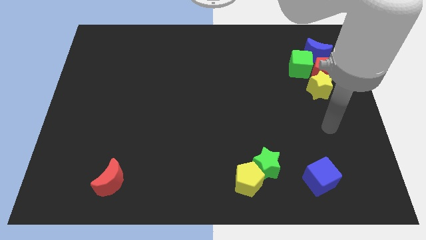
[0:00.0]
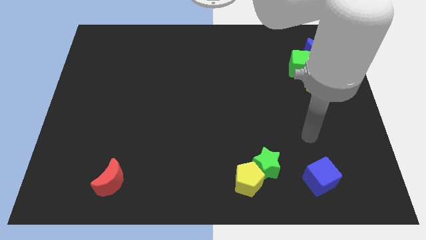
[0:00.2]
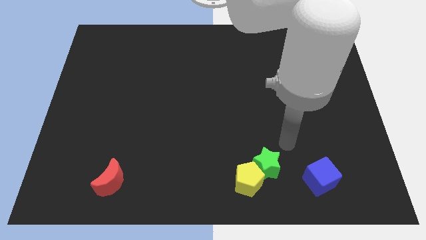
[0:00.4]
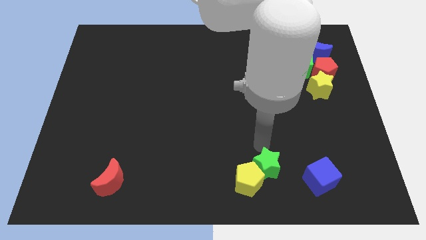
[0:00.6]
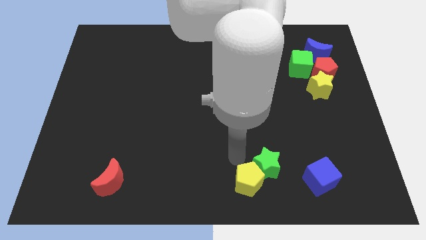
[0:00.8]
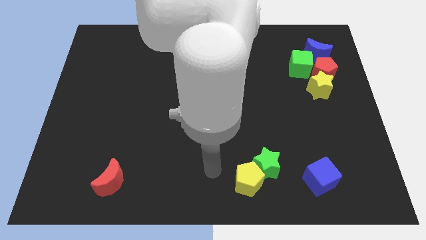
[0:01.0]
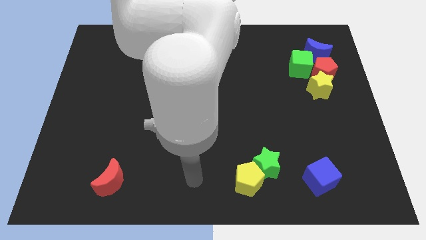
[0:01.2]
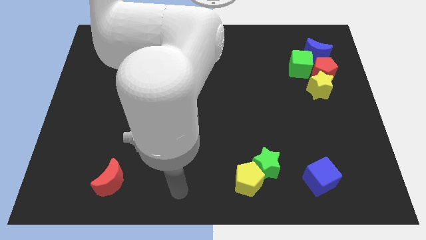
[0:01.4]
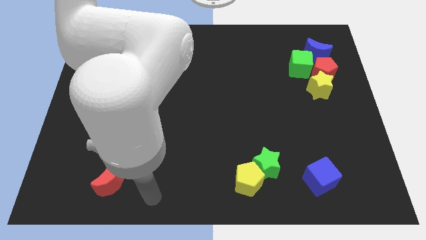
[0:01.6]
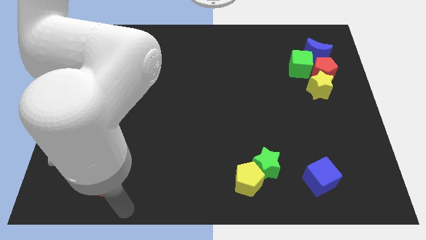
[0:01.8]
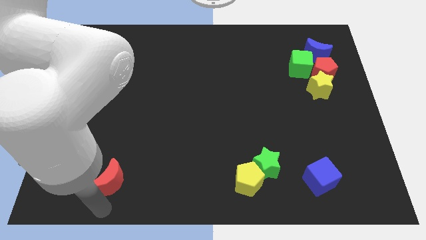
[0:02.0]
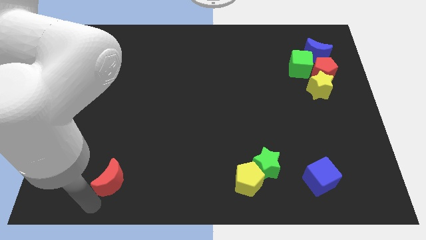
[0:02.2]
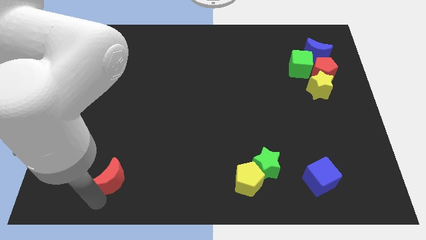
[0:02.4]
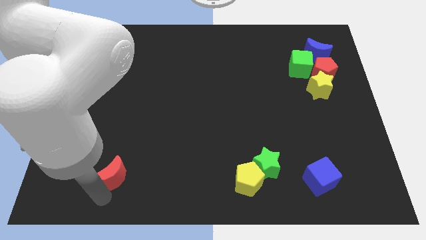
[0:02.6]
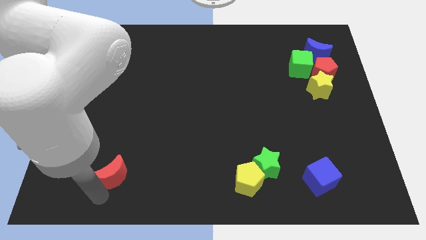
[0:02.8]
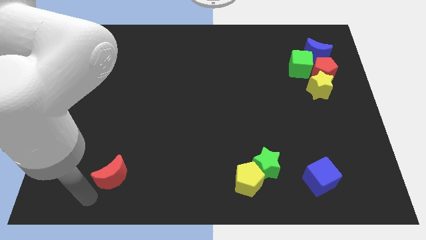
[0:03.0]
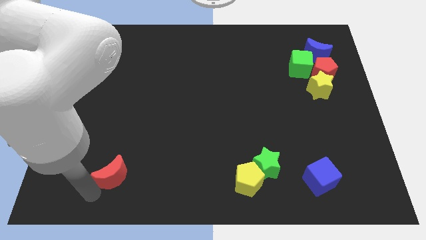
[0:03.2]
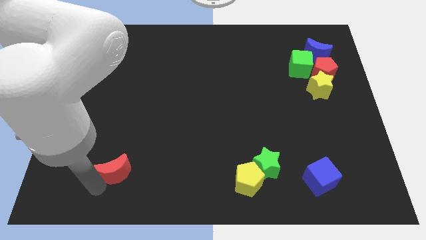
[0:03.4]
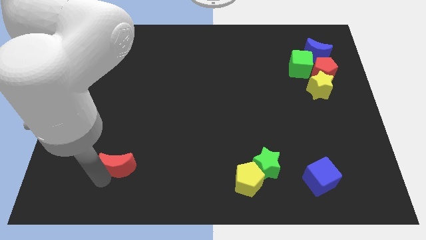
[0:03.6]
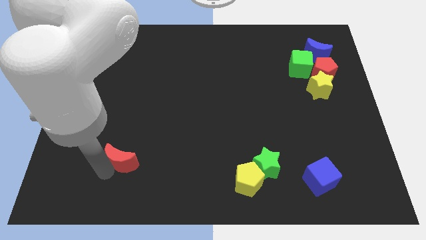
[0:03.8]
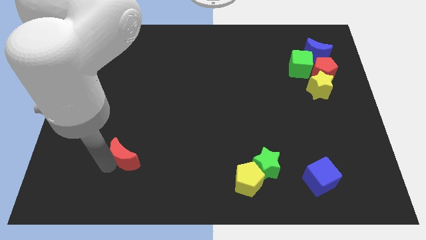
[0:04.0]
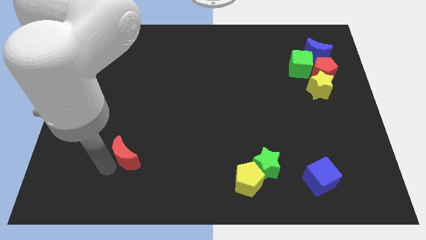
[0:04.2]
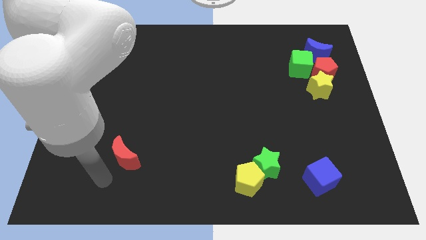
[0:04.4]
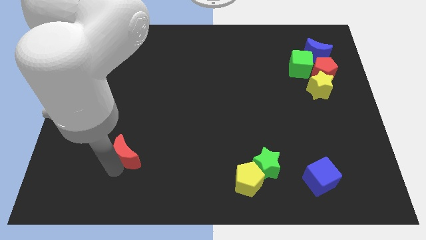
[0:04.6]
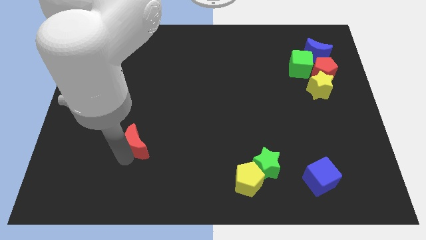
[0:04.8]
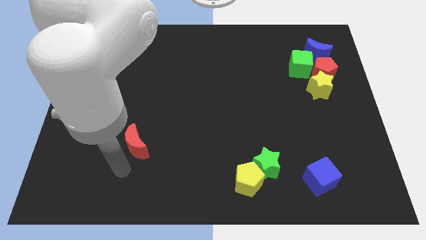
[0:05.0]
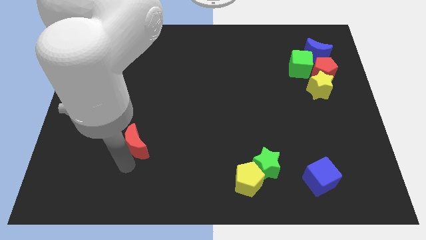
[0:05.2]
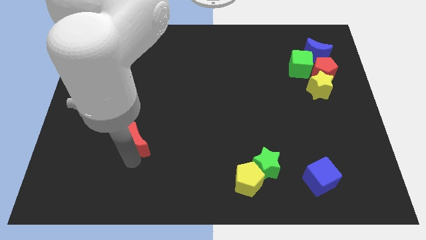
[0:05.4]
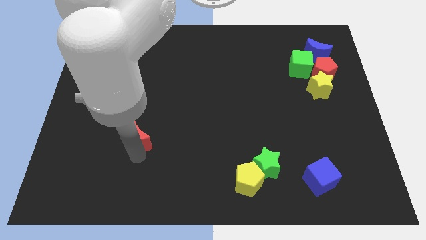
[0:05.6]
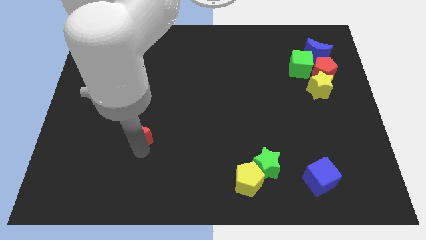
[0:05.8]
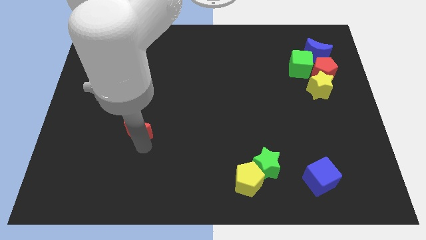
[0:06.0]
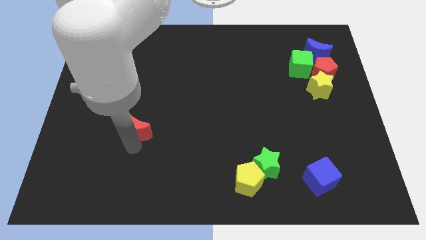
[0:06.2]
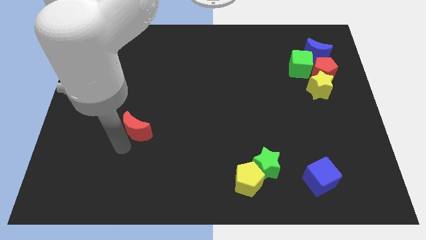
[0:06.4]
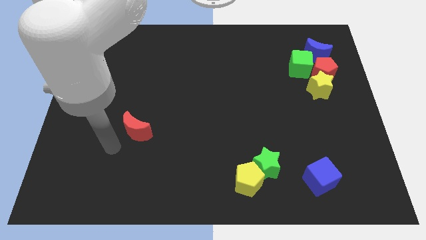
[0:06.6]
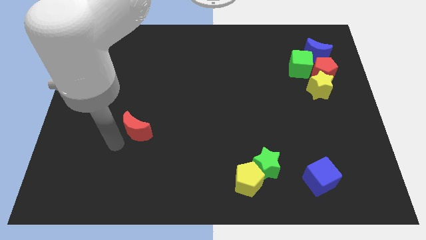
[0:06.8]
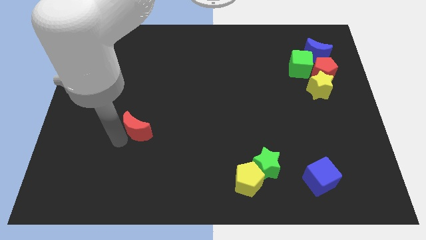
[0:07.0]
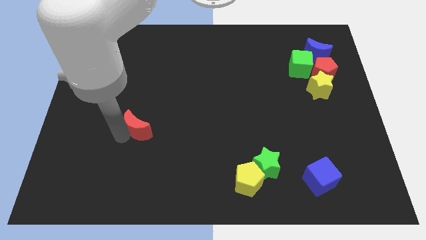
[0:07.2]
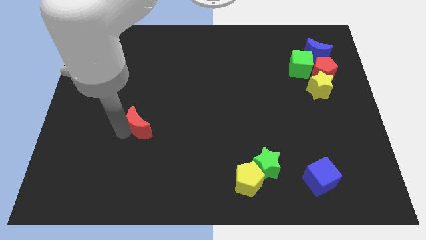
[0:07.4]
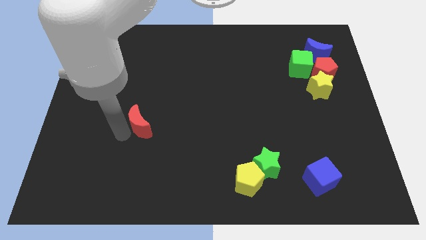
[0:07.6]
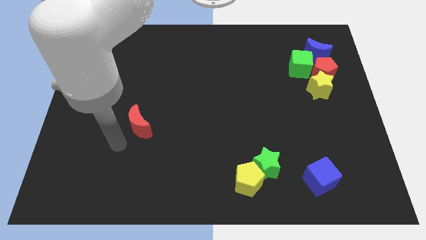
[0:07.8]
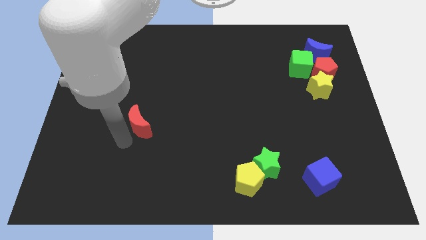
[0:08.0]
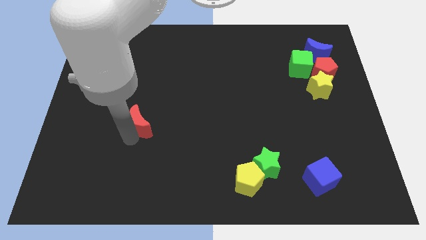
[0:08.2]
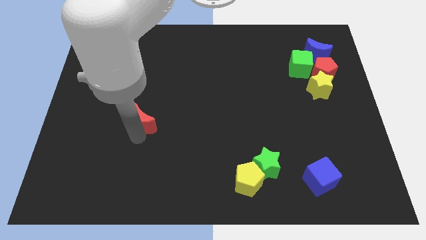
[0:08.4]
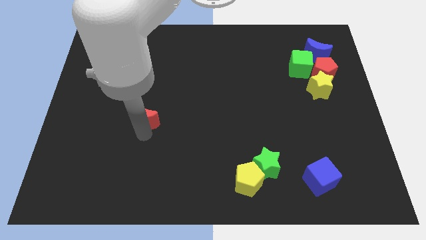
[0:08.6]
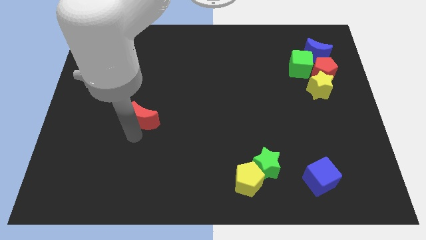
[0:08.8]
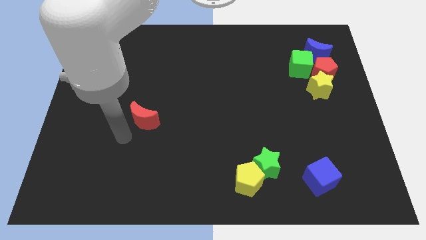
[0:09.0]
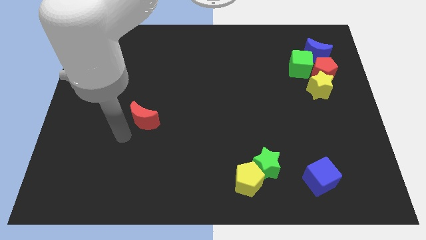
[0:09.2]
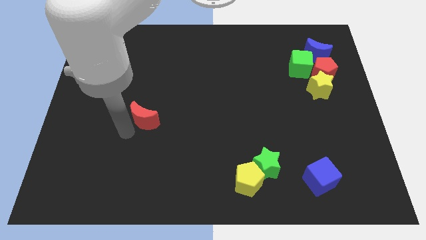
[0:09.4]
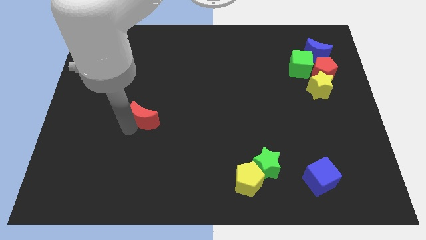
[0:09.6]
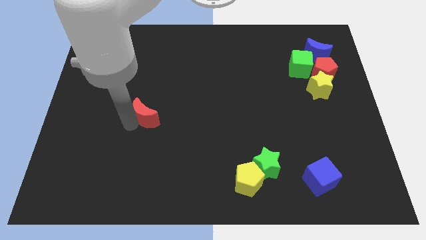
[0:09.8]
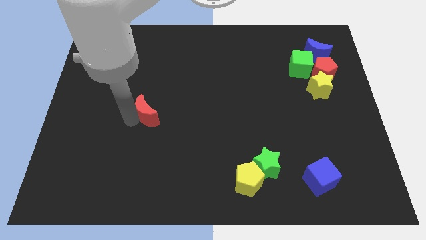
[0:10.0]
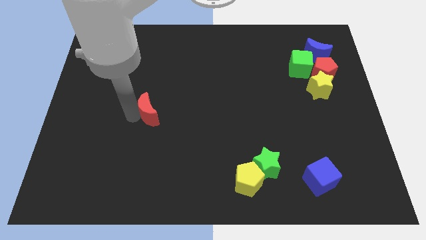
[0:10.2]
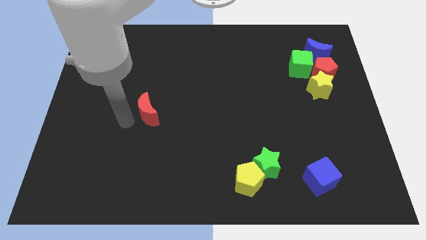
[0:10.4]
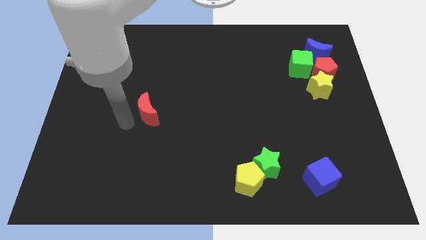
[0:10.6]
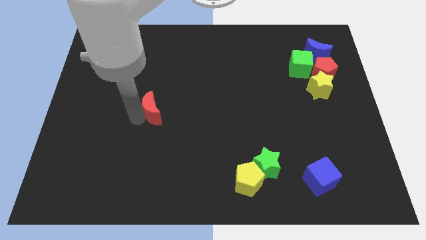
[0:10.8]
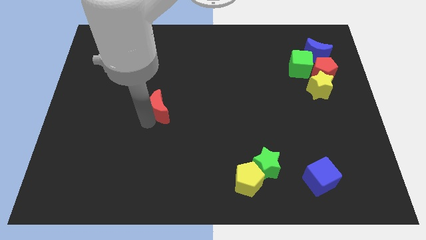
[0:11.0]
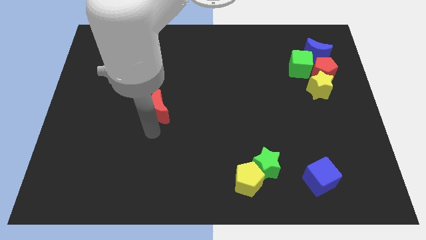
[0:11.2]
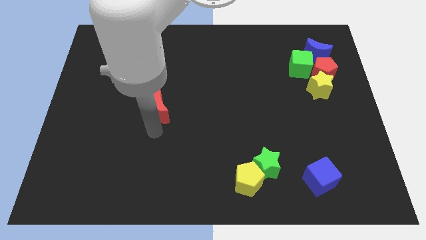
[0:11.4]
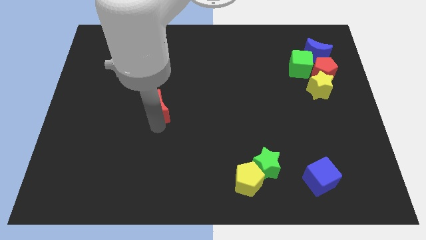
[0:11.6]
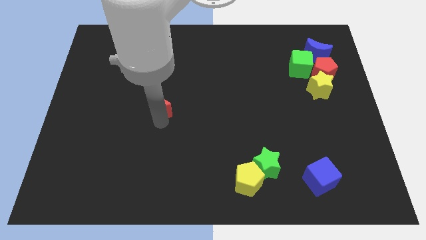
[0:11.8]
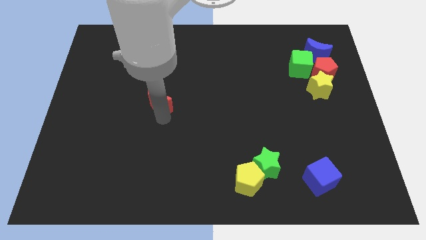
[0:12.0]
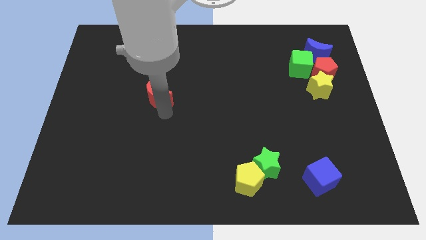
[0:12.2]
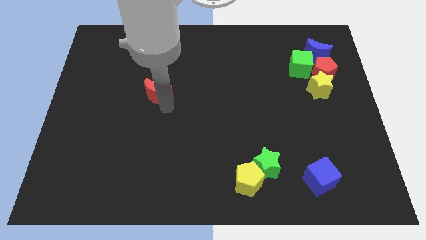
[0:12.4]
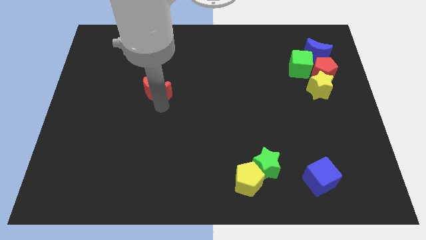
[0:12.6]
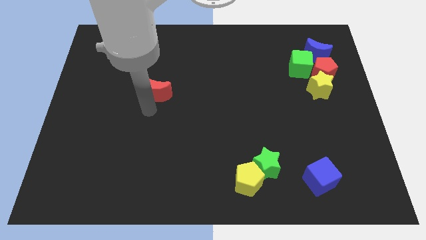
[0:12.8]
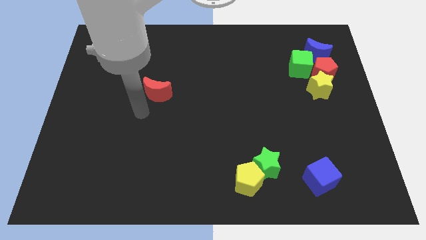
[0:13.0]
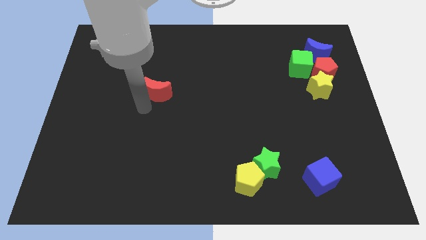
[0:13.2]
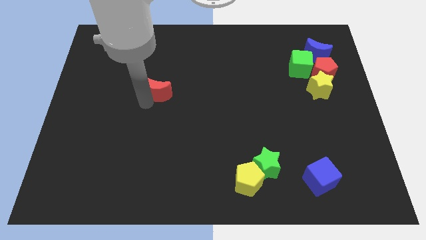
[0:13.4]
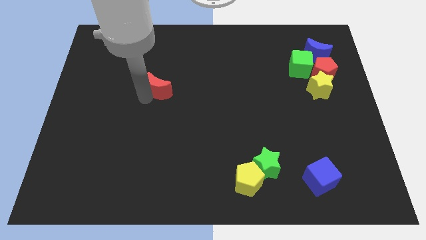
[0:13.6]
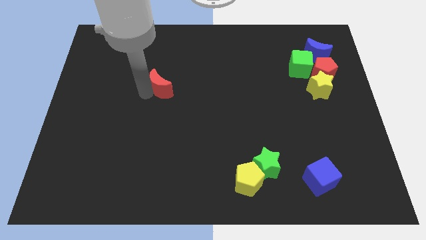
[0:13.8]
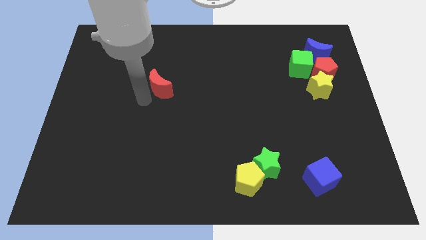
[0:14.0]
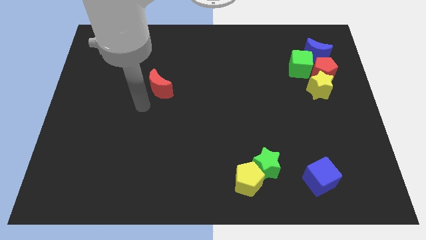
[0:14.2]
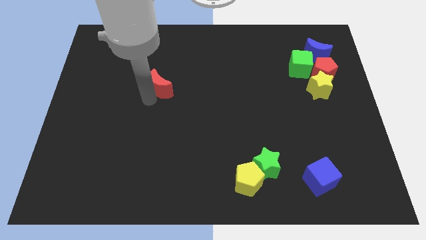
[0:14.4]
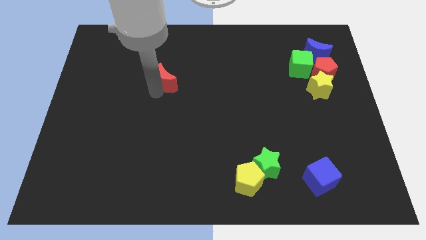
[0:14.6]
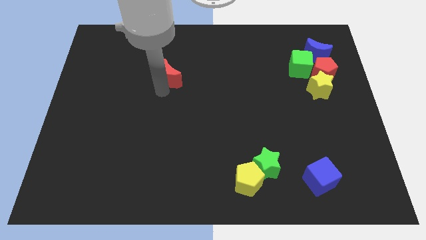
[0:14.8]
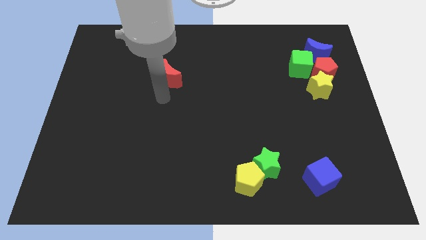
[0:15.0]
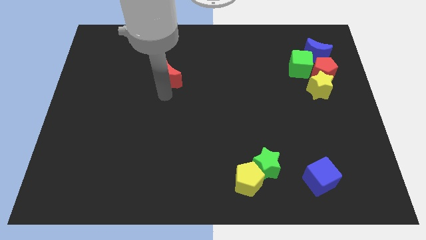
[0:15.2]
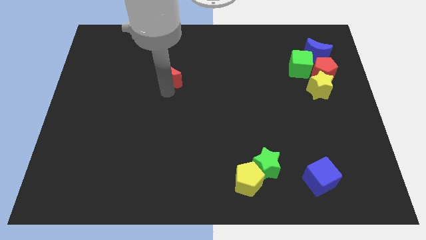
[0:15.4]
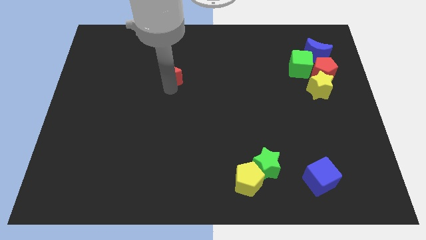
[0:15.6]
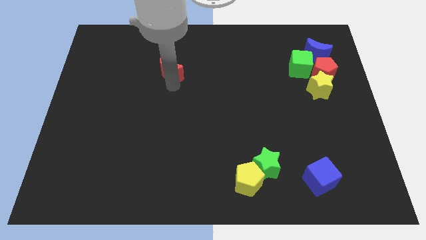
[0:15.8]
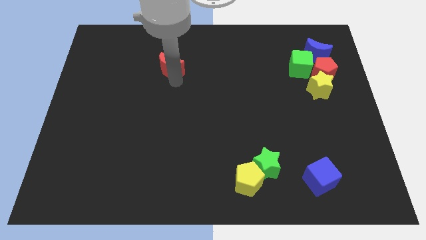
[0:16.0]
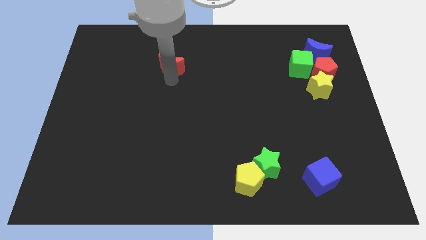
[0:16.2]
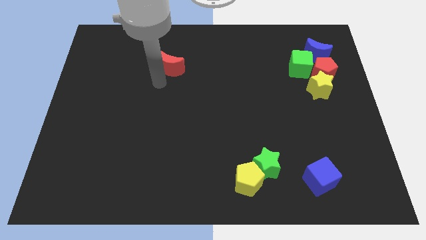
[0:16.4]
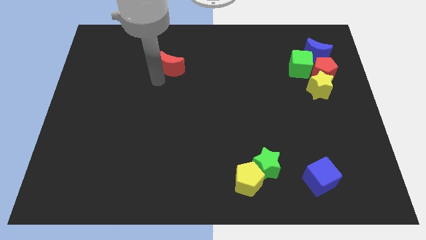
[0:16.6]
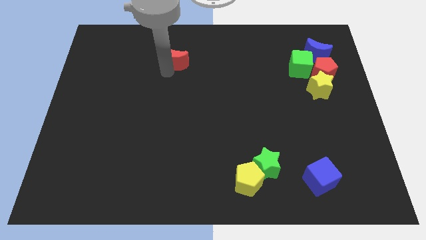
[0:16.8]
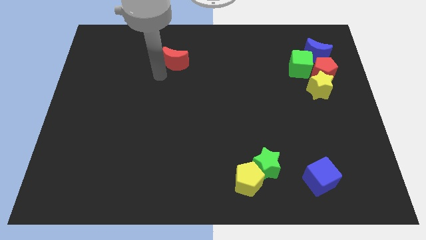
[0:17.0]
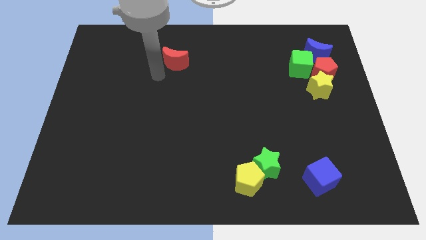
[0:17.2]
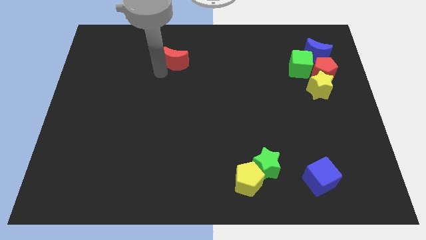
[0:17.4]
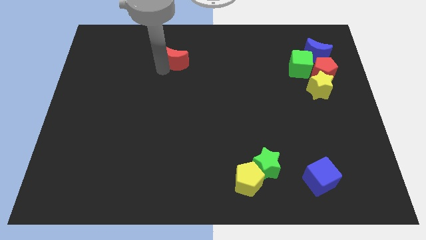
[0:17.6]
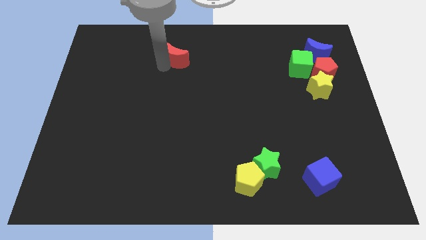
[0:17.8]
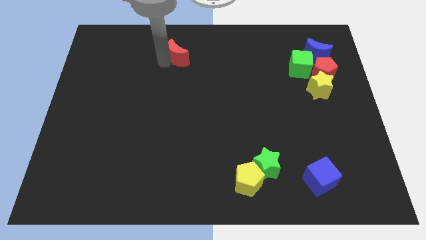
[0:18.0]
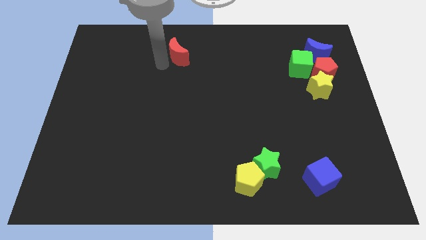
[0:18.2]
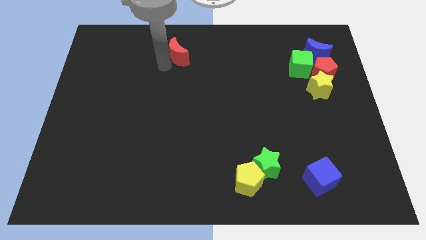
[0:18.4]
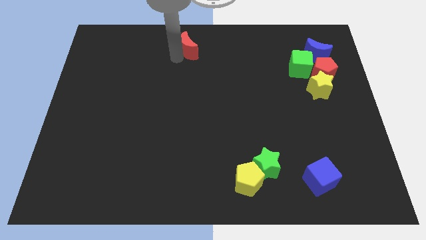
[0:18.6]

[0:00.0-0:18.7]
put the red moon to the towards your base
